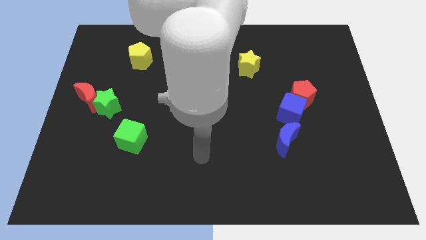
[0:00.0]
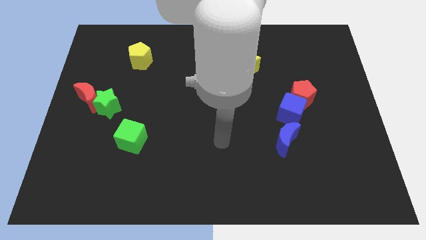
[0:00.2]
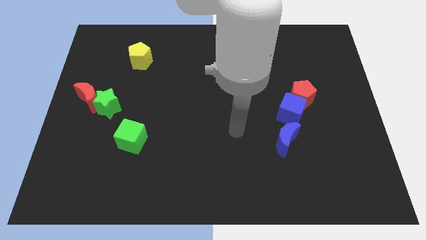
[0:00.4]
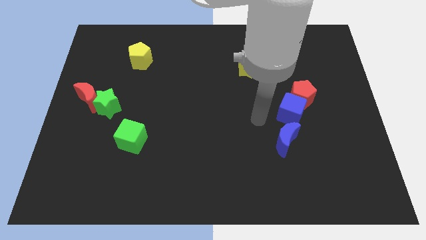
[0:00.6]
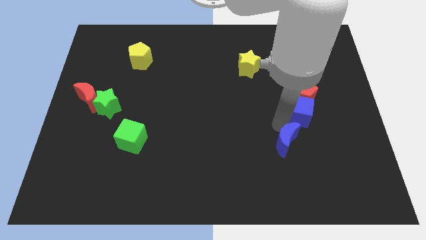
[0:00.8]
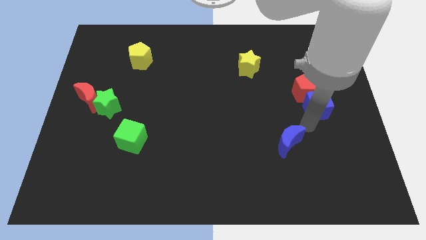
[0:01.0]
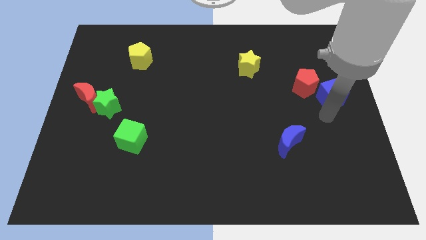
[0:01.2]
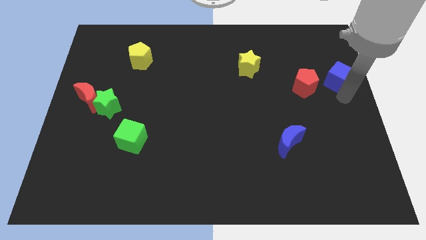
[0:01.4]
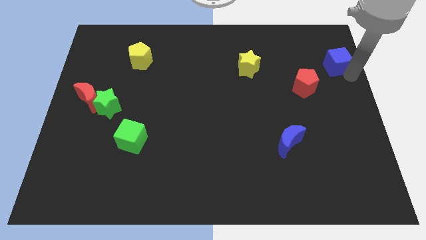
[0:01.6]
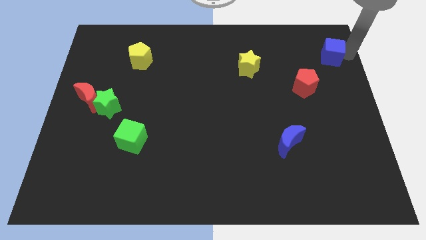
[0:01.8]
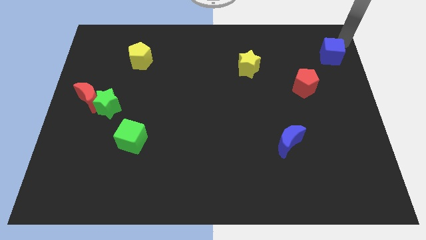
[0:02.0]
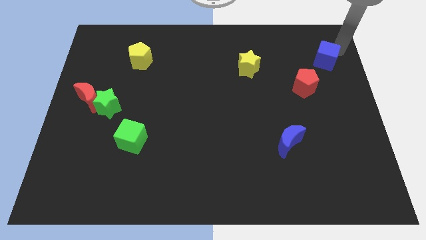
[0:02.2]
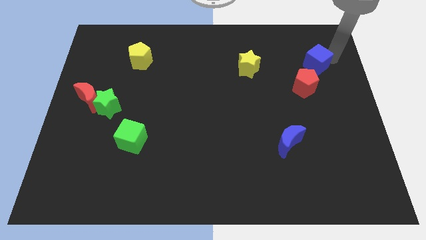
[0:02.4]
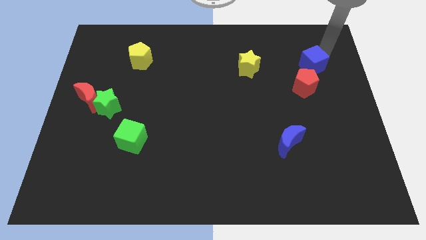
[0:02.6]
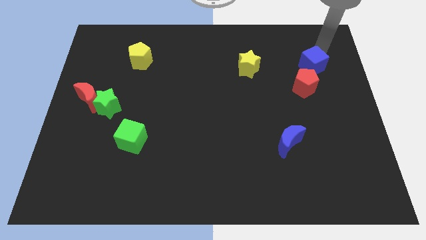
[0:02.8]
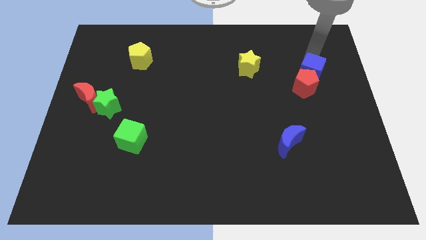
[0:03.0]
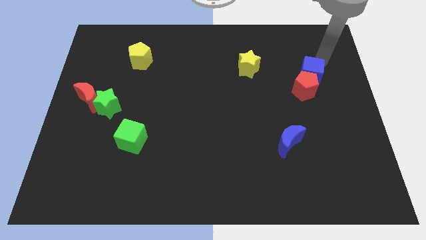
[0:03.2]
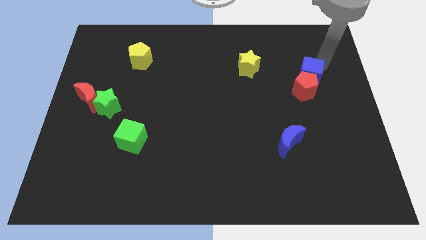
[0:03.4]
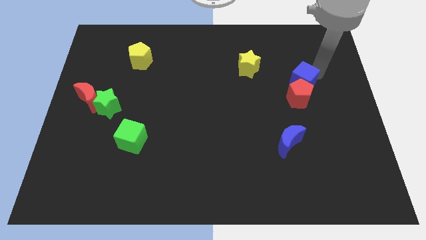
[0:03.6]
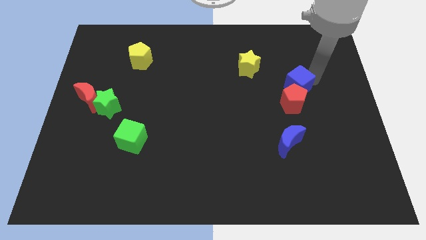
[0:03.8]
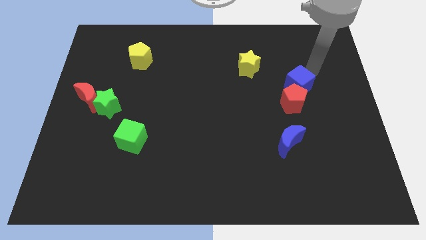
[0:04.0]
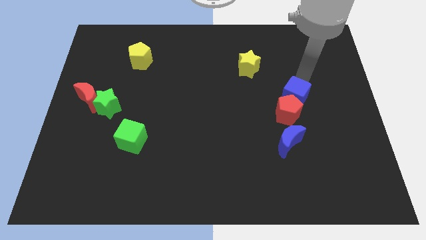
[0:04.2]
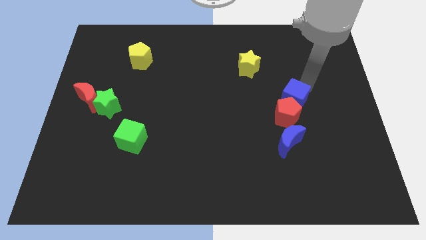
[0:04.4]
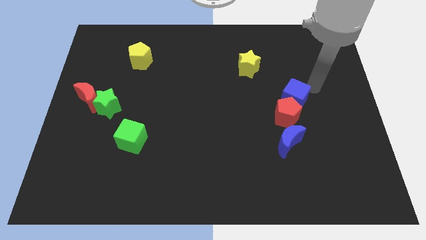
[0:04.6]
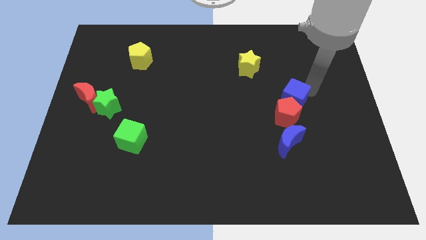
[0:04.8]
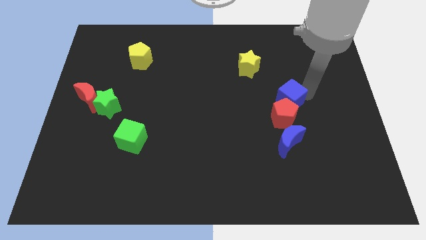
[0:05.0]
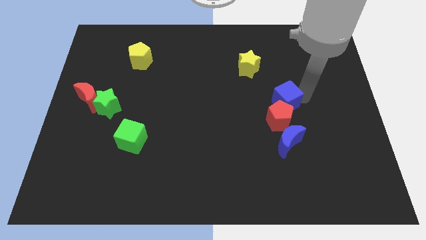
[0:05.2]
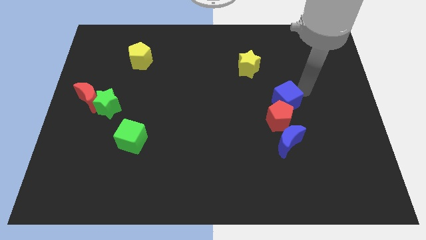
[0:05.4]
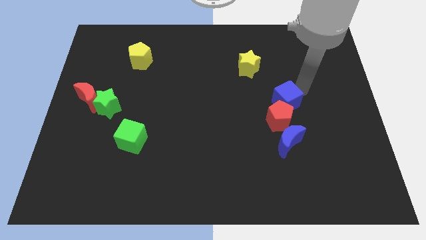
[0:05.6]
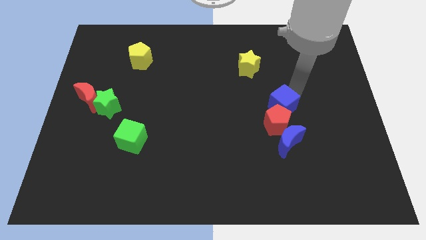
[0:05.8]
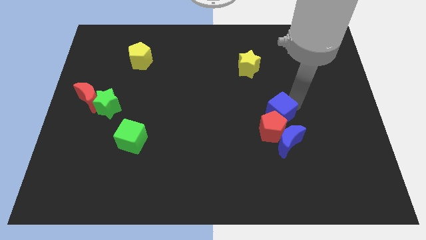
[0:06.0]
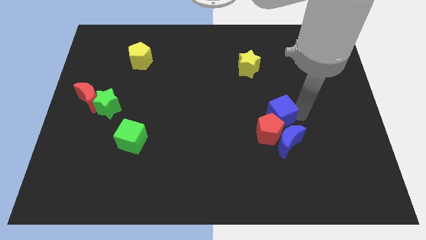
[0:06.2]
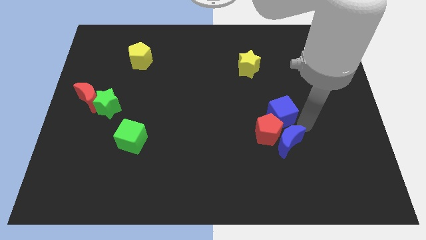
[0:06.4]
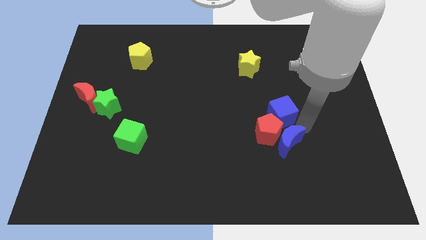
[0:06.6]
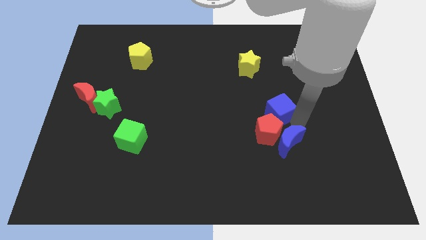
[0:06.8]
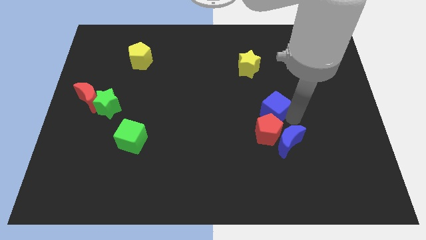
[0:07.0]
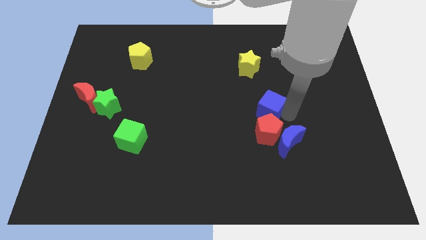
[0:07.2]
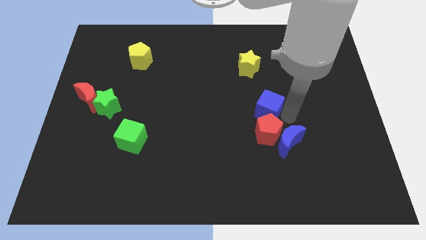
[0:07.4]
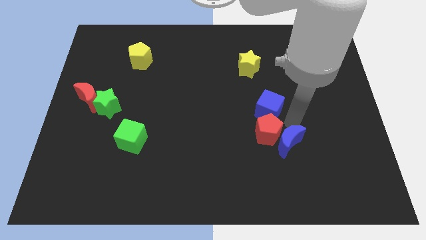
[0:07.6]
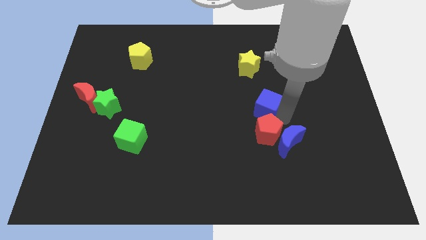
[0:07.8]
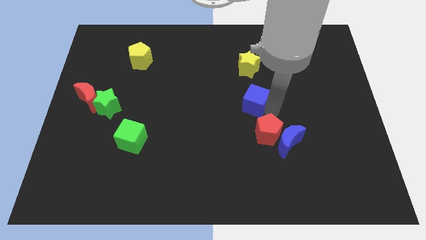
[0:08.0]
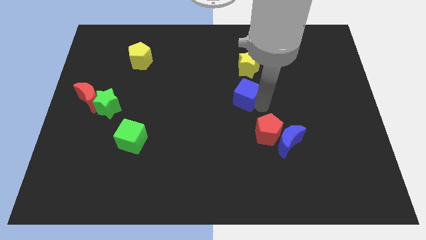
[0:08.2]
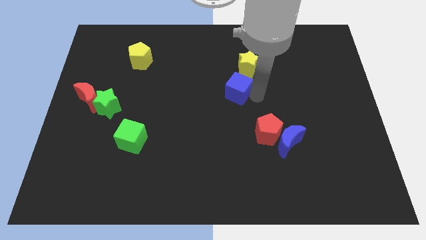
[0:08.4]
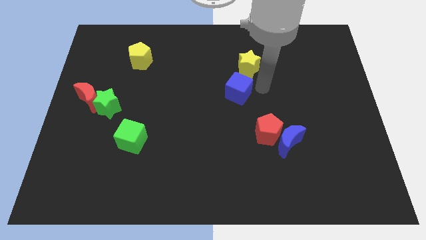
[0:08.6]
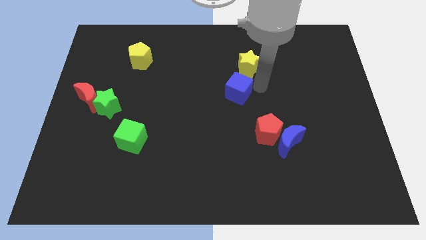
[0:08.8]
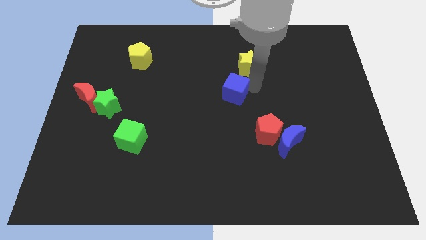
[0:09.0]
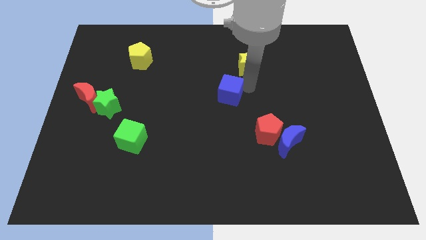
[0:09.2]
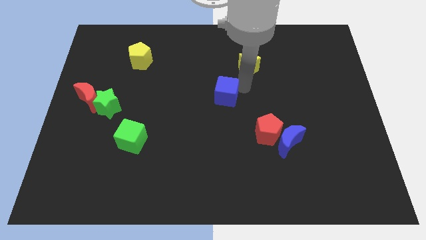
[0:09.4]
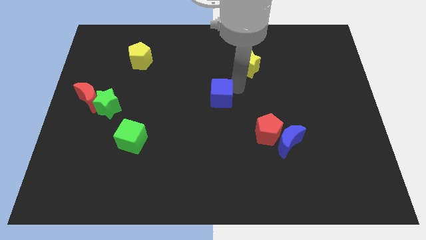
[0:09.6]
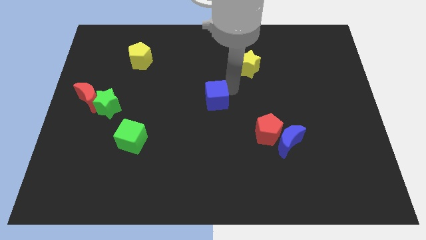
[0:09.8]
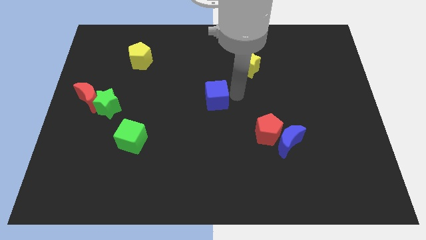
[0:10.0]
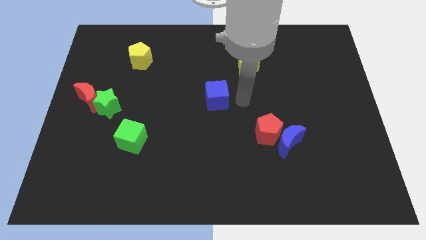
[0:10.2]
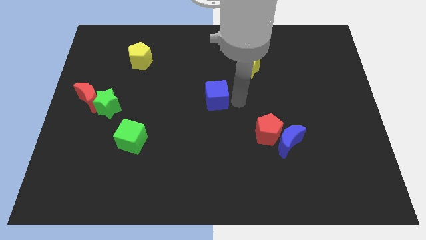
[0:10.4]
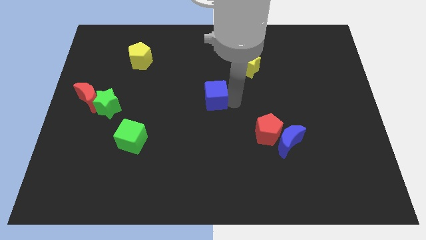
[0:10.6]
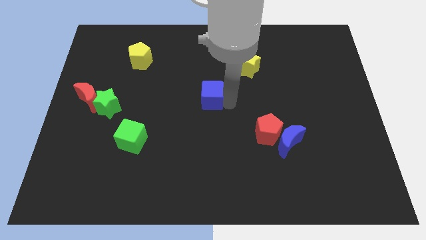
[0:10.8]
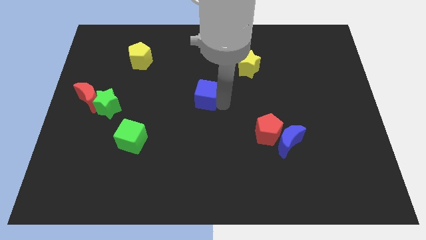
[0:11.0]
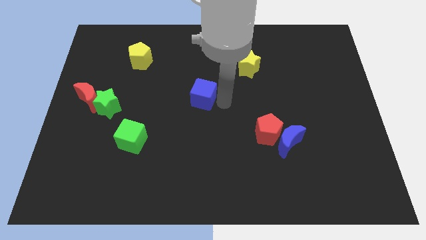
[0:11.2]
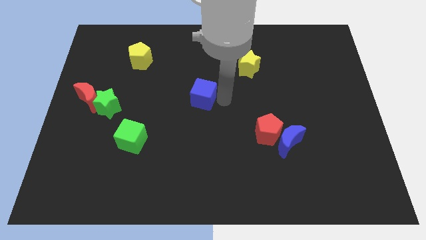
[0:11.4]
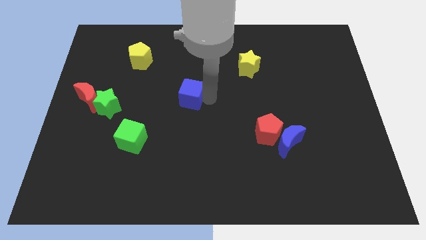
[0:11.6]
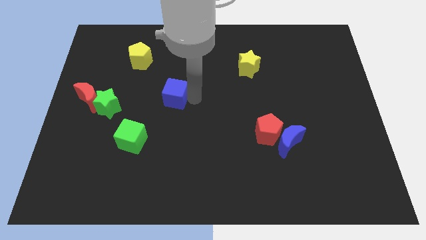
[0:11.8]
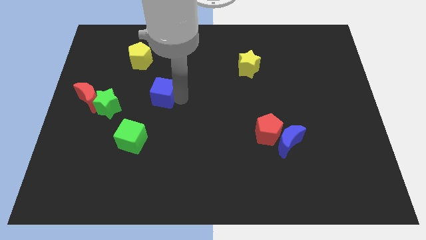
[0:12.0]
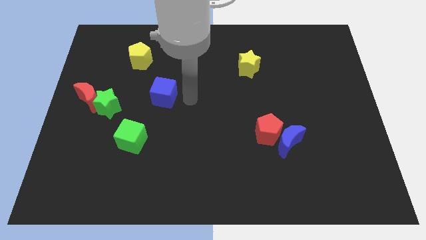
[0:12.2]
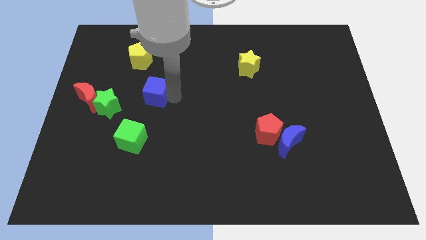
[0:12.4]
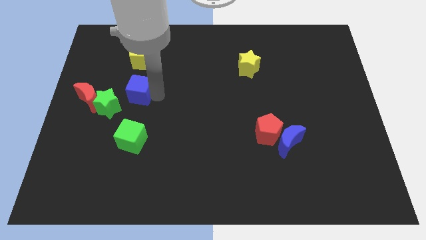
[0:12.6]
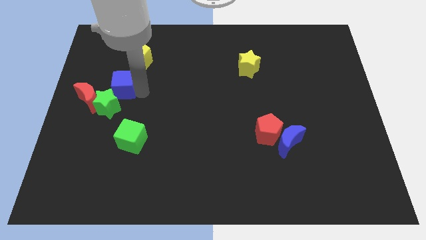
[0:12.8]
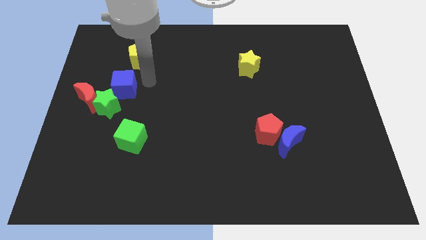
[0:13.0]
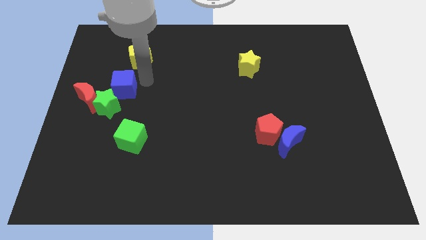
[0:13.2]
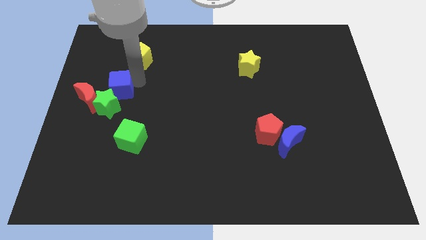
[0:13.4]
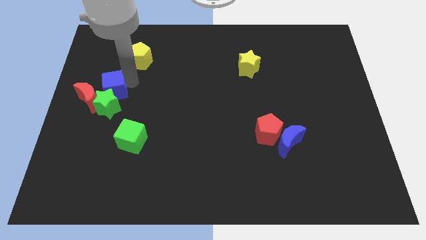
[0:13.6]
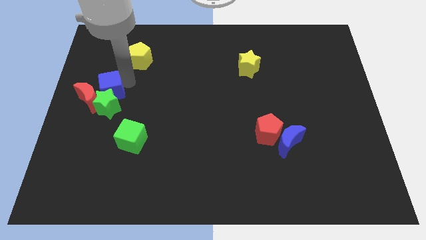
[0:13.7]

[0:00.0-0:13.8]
push the blue cube towards the red moon
